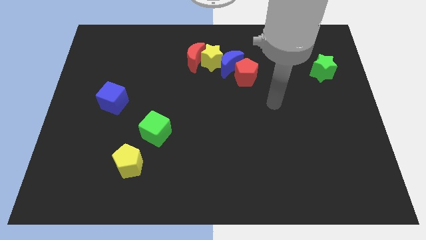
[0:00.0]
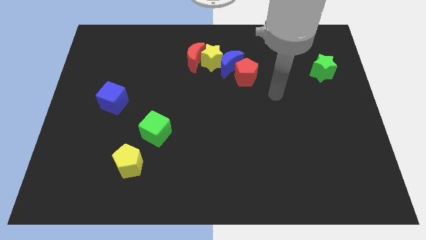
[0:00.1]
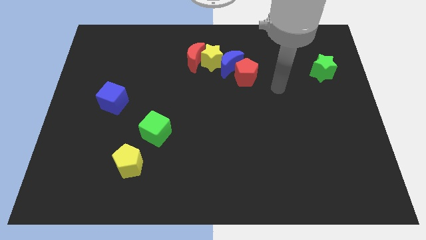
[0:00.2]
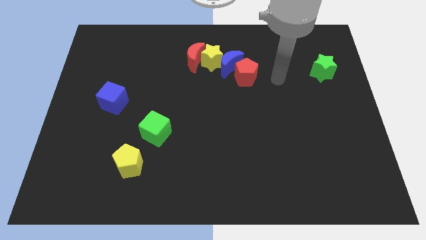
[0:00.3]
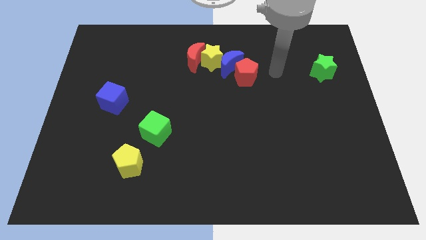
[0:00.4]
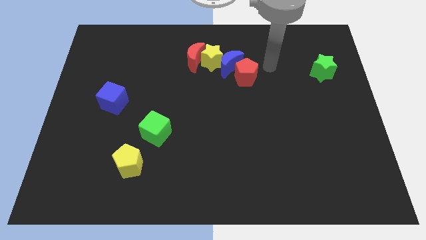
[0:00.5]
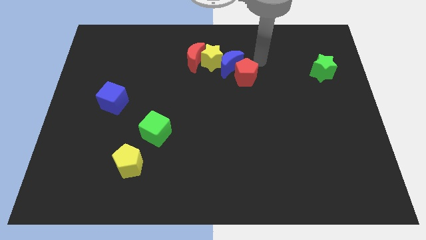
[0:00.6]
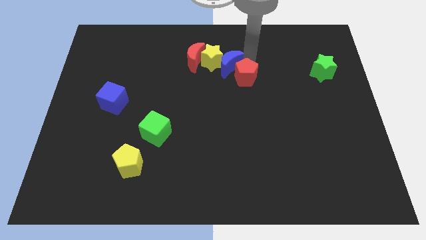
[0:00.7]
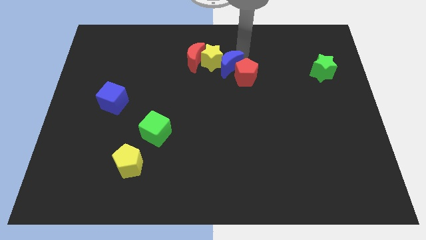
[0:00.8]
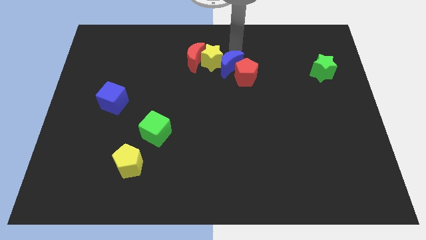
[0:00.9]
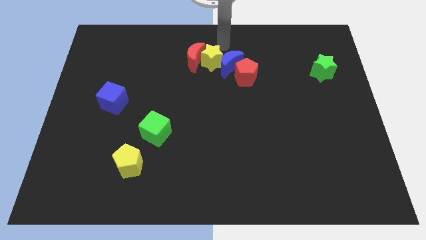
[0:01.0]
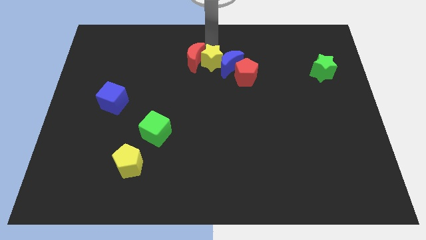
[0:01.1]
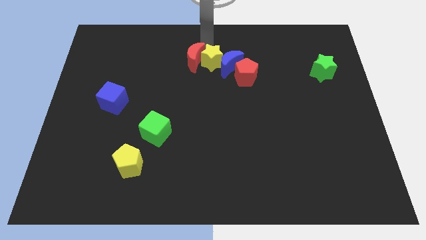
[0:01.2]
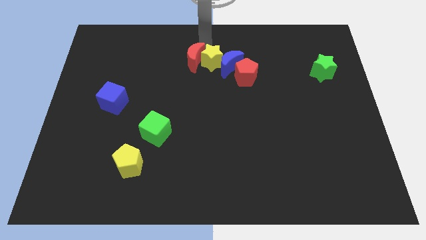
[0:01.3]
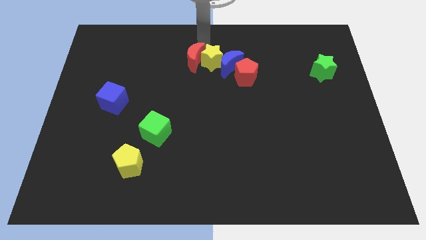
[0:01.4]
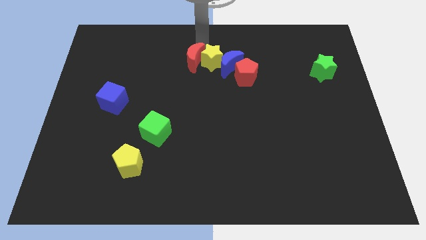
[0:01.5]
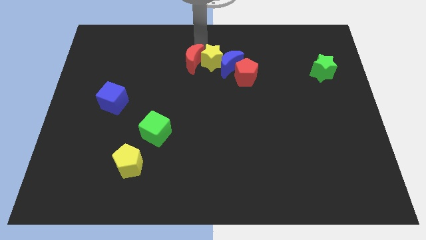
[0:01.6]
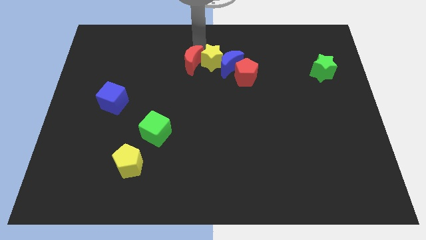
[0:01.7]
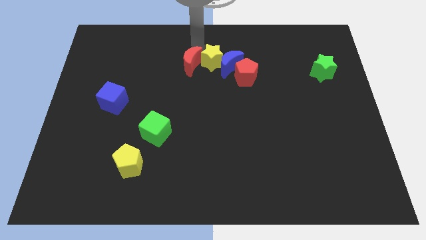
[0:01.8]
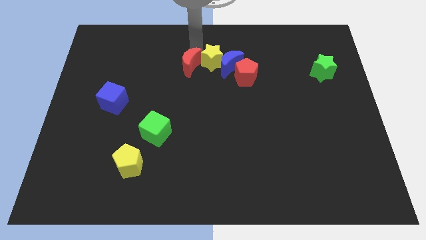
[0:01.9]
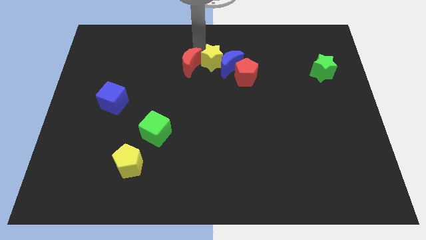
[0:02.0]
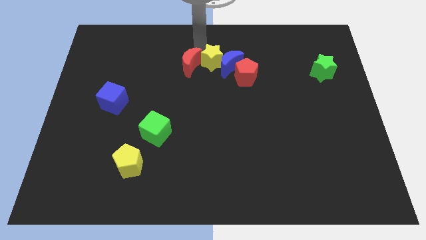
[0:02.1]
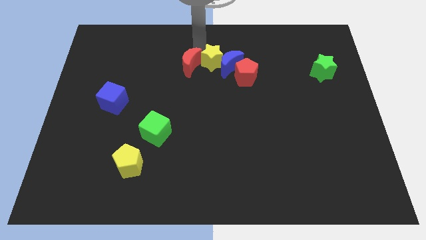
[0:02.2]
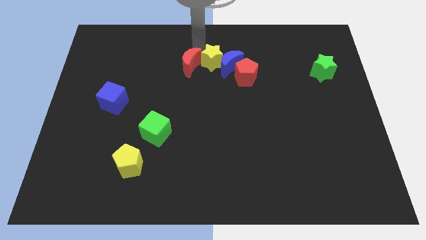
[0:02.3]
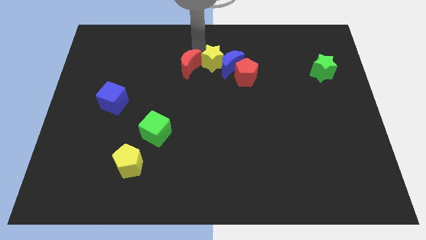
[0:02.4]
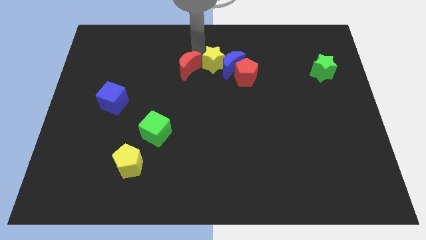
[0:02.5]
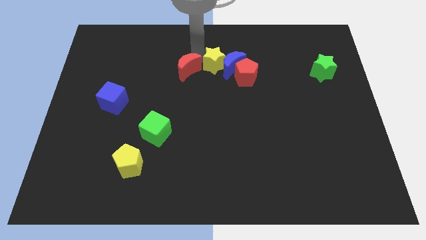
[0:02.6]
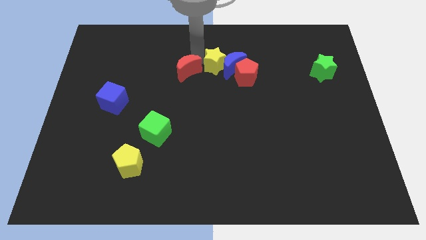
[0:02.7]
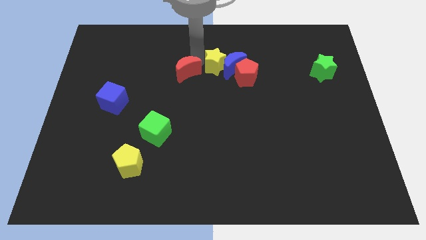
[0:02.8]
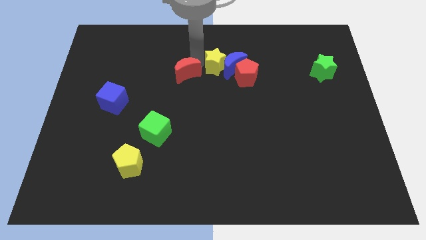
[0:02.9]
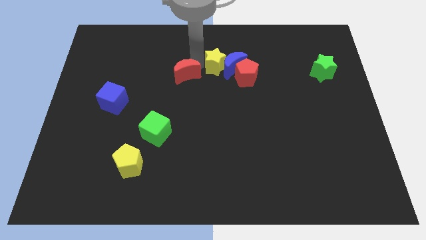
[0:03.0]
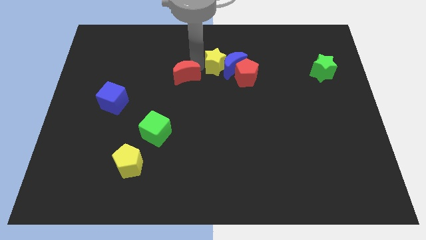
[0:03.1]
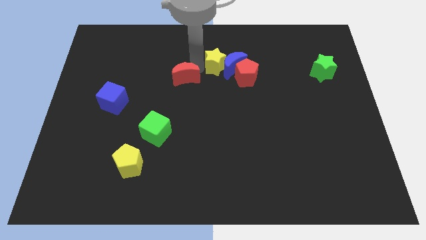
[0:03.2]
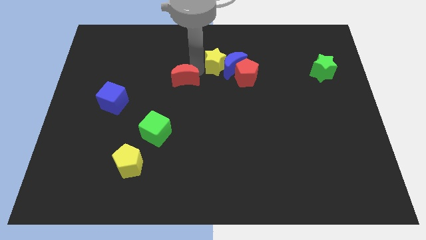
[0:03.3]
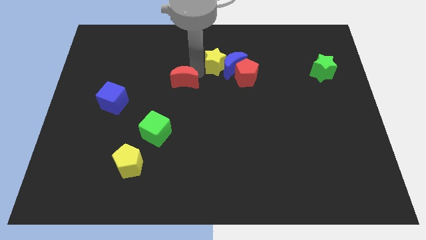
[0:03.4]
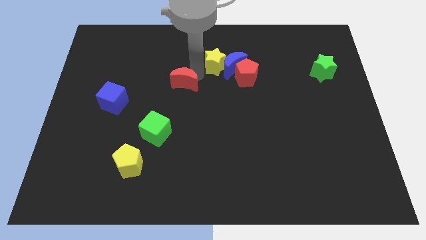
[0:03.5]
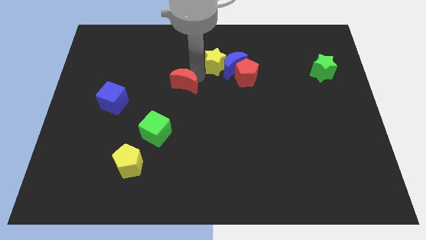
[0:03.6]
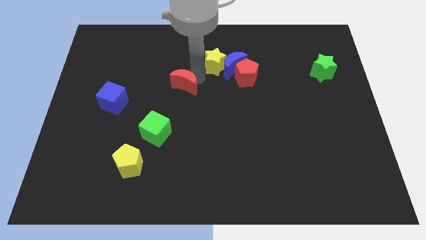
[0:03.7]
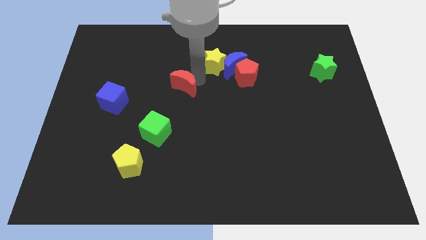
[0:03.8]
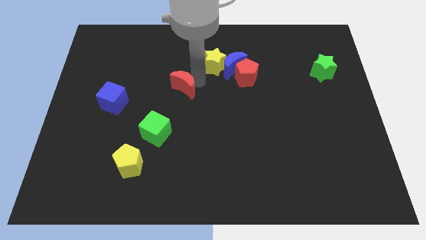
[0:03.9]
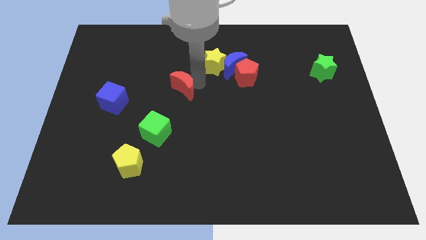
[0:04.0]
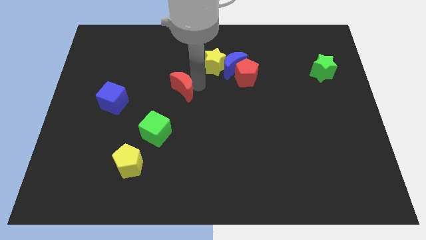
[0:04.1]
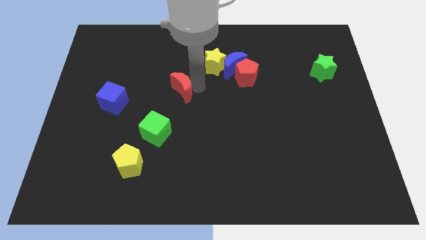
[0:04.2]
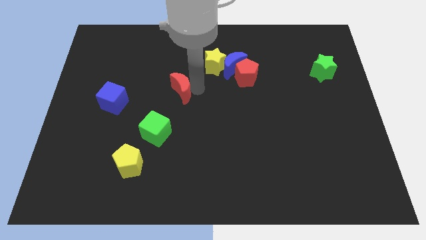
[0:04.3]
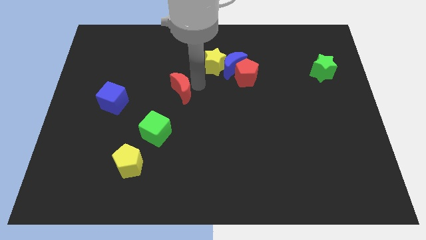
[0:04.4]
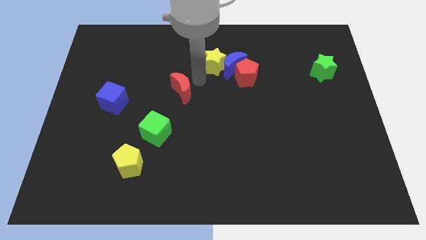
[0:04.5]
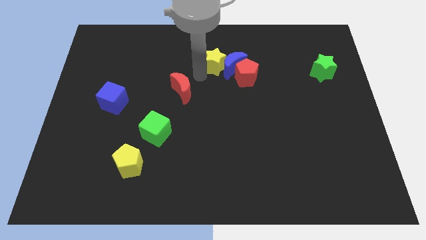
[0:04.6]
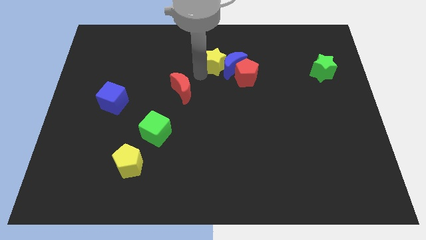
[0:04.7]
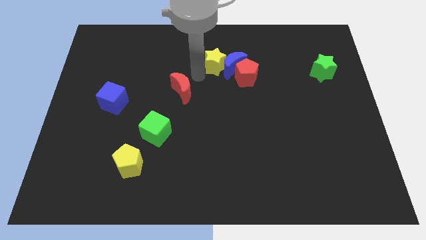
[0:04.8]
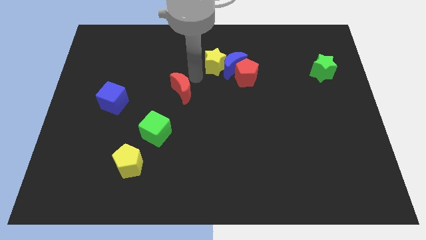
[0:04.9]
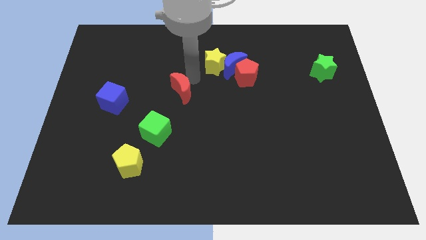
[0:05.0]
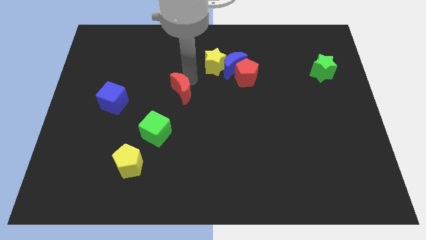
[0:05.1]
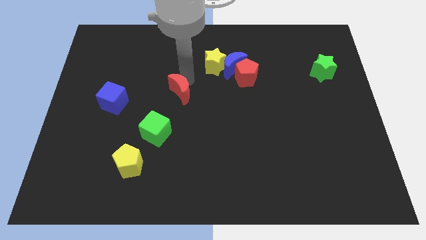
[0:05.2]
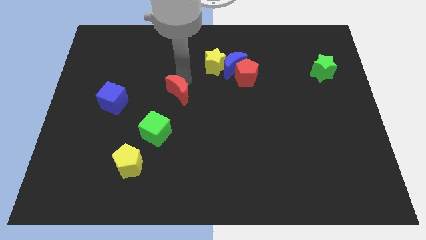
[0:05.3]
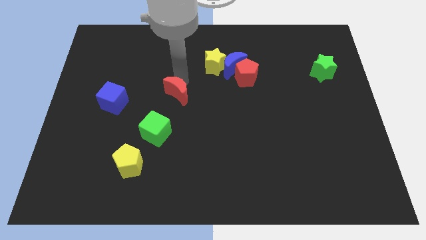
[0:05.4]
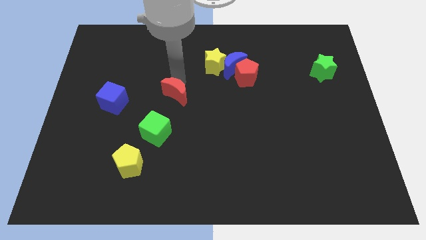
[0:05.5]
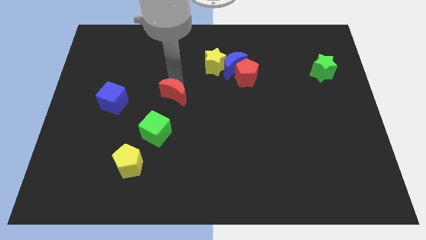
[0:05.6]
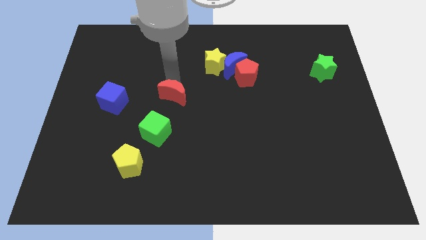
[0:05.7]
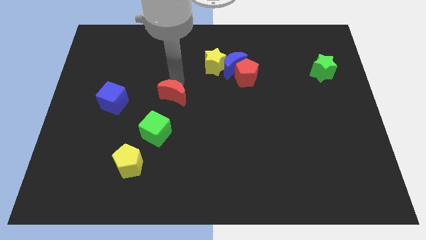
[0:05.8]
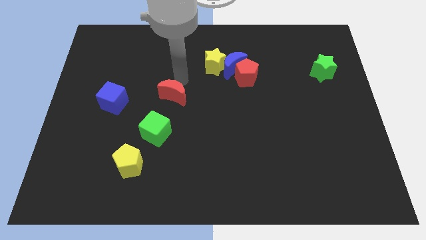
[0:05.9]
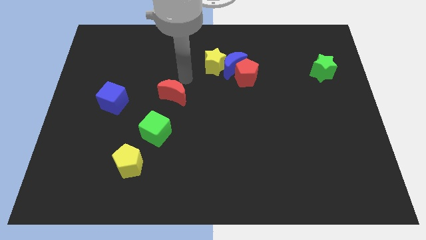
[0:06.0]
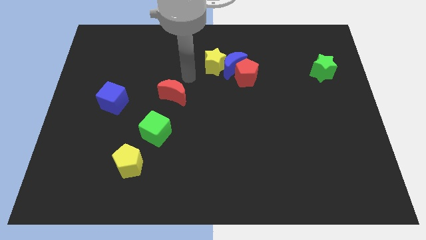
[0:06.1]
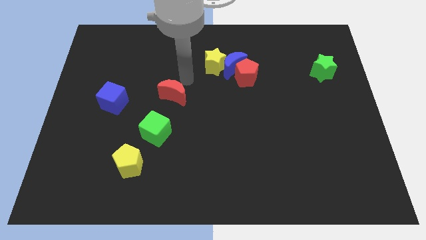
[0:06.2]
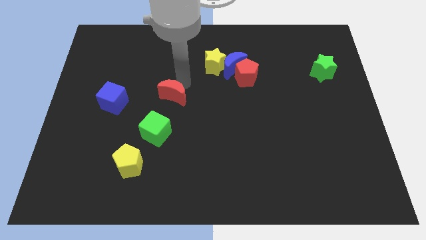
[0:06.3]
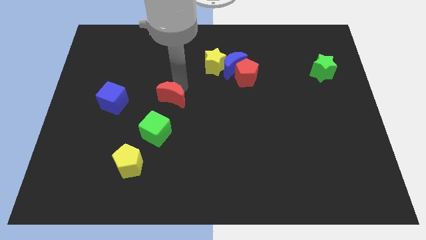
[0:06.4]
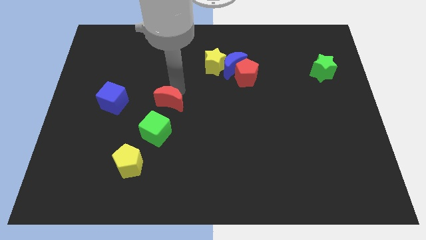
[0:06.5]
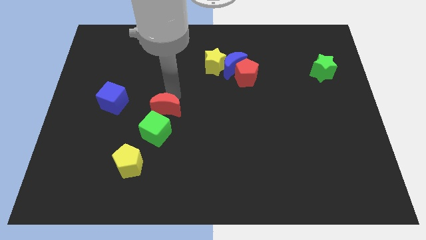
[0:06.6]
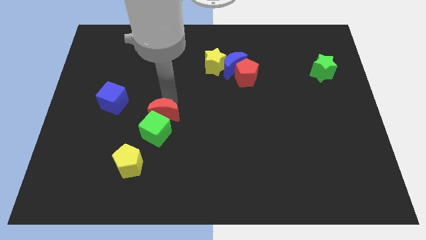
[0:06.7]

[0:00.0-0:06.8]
put the red moon towards the green cube

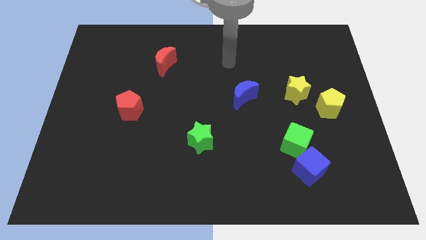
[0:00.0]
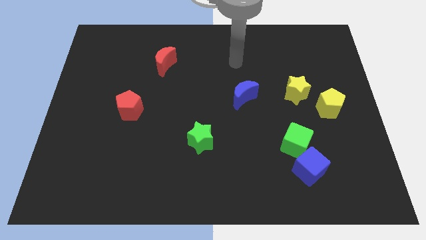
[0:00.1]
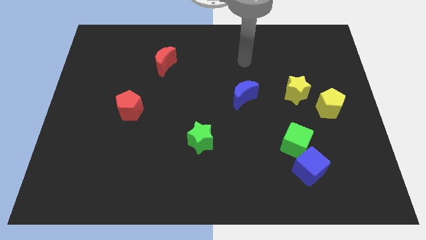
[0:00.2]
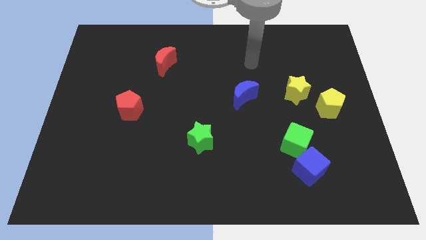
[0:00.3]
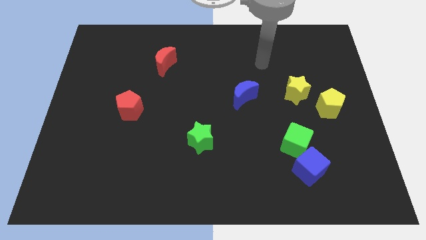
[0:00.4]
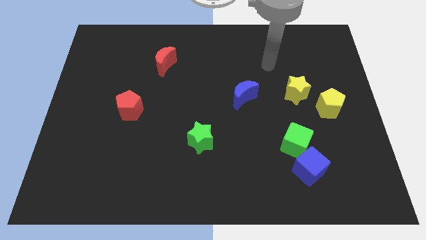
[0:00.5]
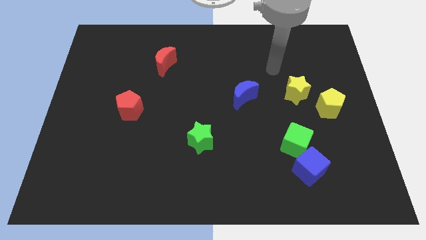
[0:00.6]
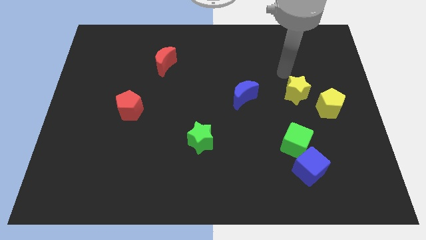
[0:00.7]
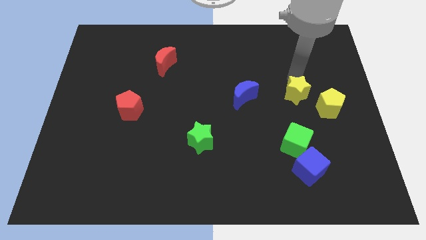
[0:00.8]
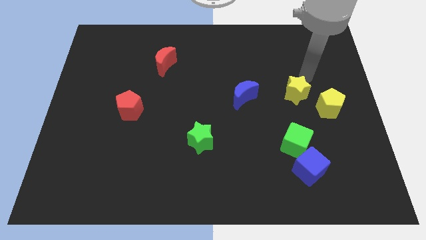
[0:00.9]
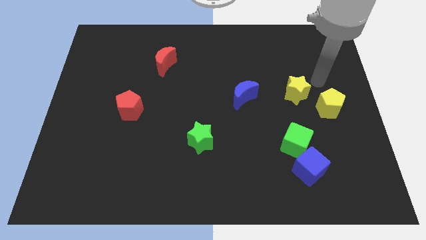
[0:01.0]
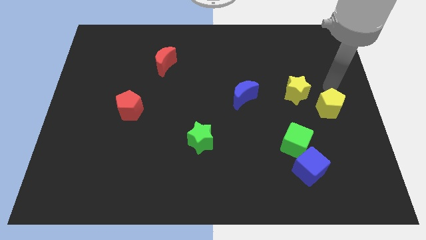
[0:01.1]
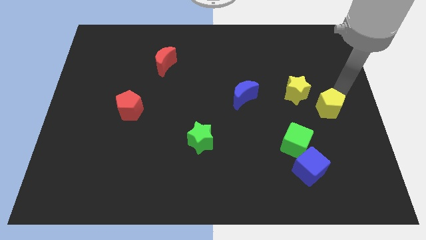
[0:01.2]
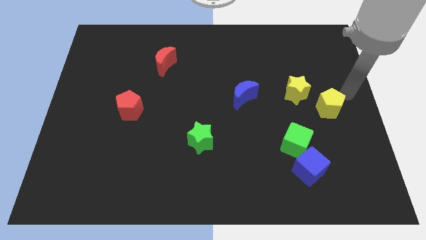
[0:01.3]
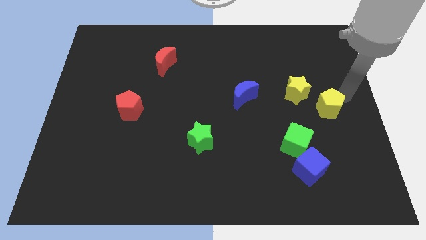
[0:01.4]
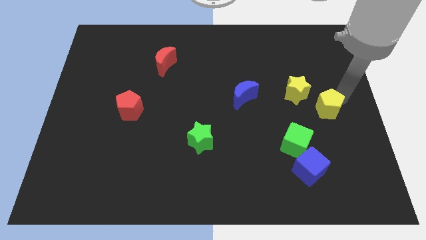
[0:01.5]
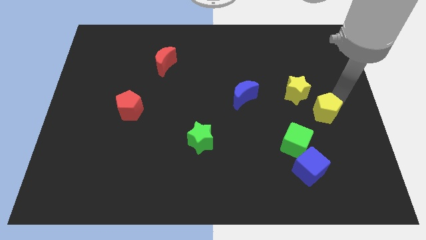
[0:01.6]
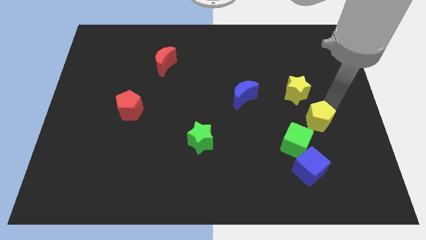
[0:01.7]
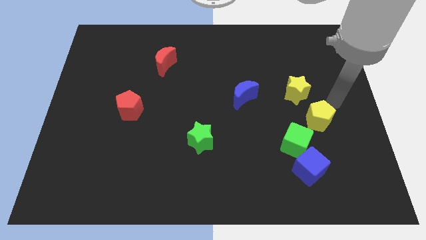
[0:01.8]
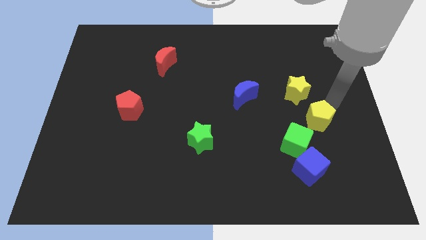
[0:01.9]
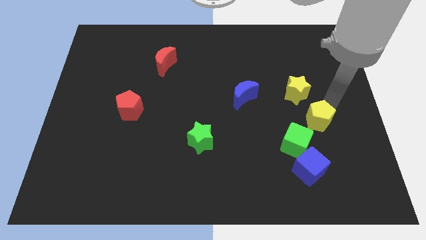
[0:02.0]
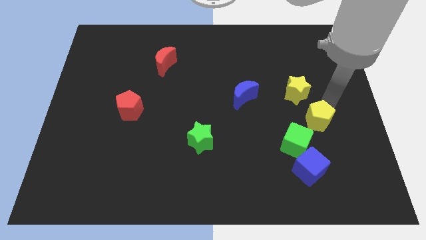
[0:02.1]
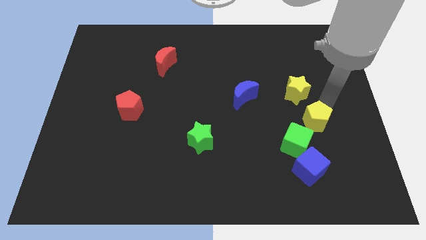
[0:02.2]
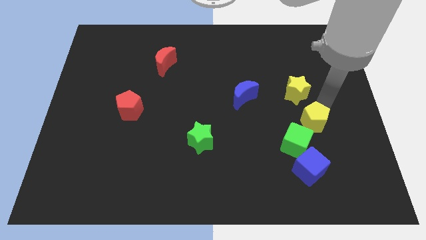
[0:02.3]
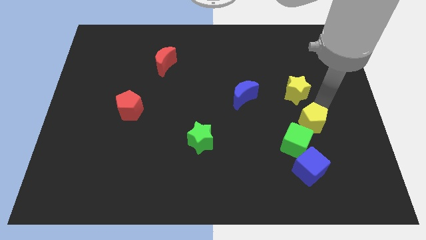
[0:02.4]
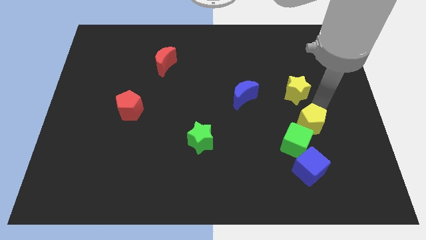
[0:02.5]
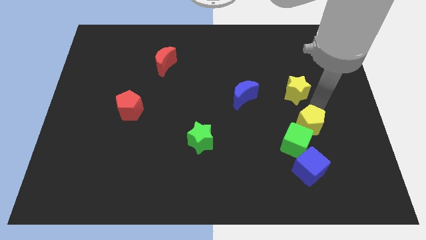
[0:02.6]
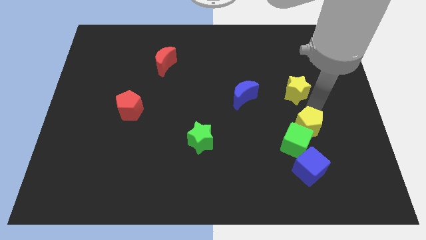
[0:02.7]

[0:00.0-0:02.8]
put the yellow pentagon towards the green cube
